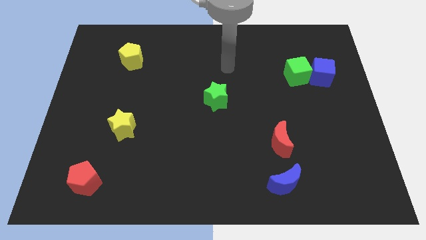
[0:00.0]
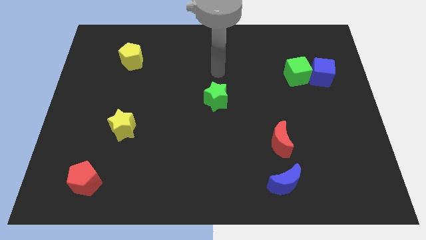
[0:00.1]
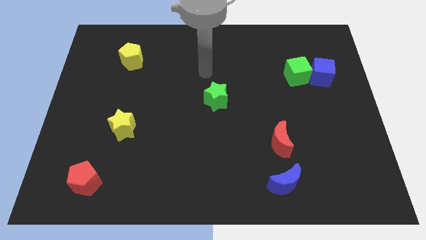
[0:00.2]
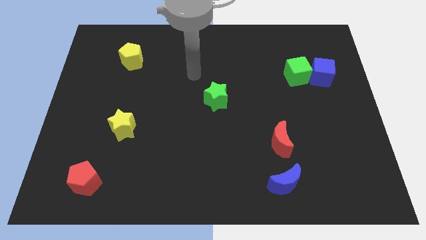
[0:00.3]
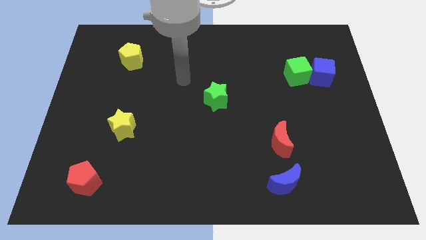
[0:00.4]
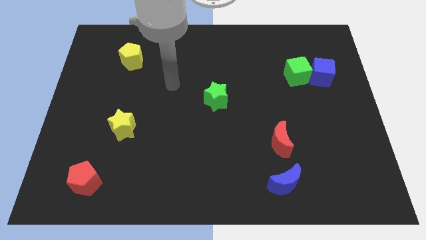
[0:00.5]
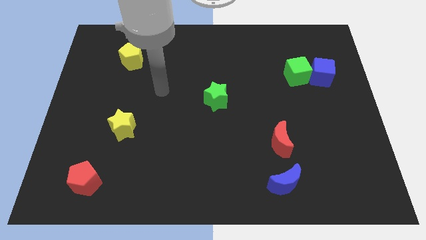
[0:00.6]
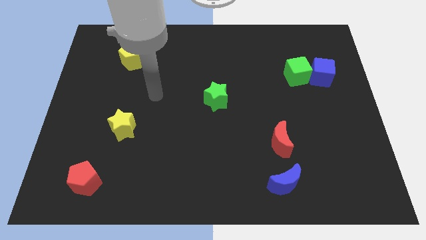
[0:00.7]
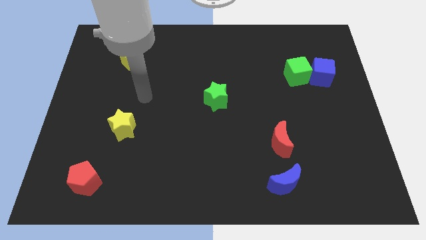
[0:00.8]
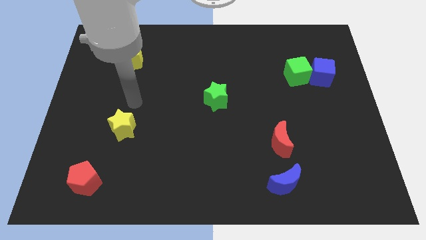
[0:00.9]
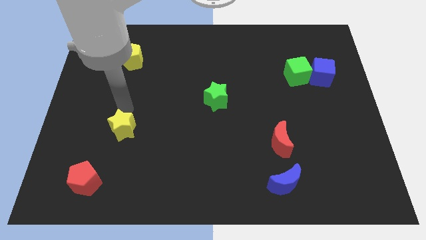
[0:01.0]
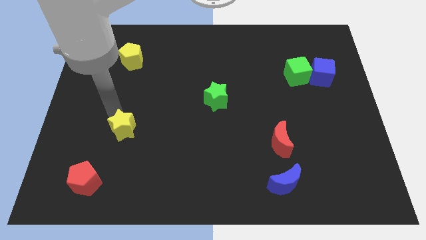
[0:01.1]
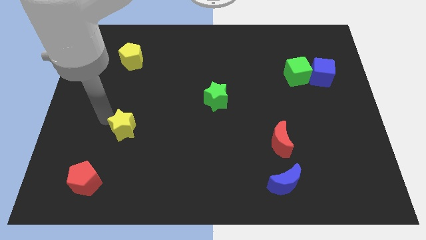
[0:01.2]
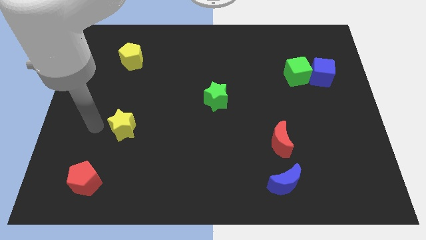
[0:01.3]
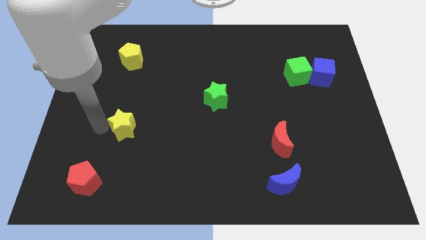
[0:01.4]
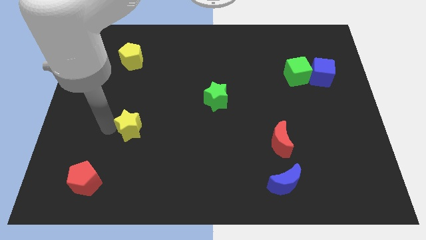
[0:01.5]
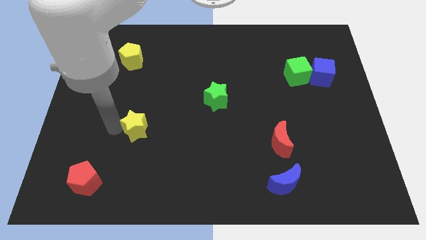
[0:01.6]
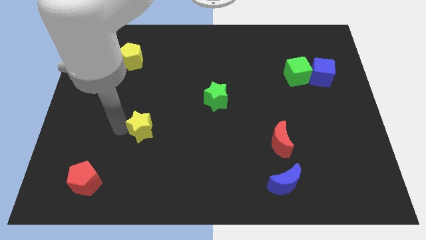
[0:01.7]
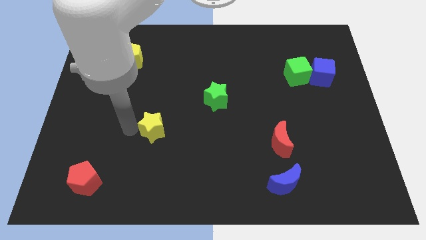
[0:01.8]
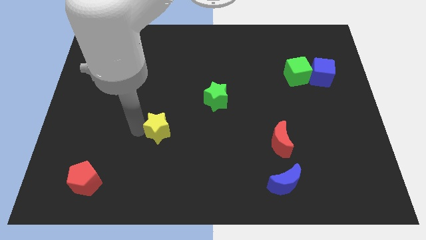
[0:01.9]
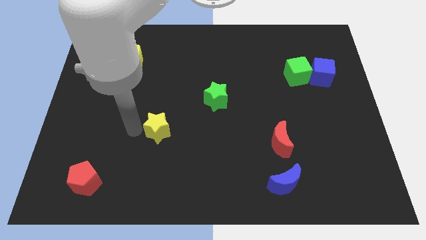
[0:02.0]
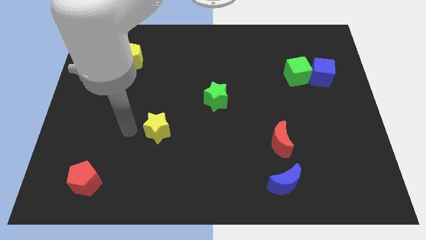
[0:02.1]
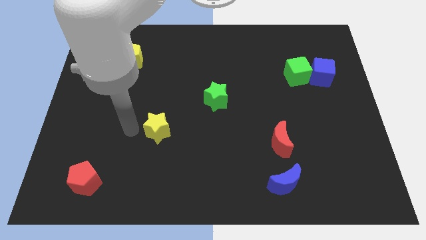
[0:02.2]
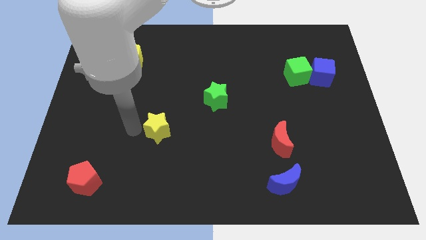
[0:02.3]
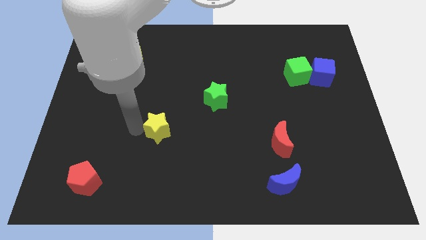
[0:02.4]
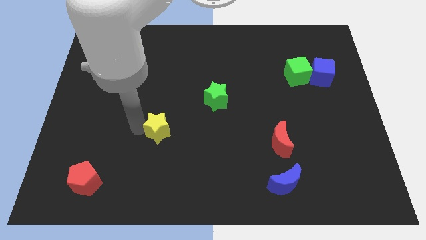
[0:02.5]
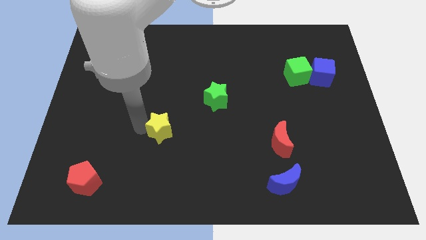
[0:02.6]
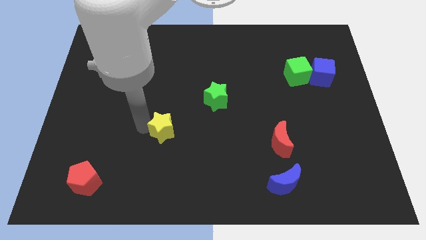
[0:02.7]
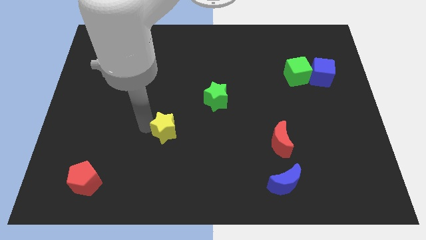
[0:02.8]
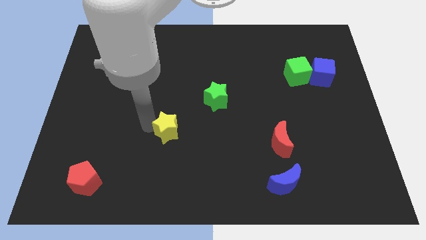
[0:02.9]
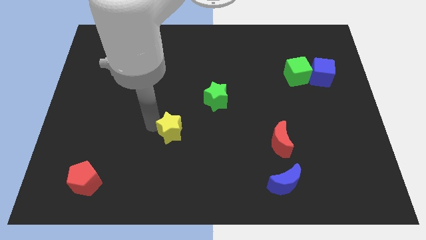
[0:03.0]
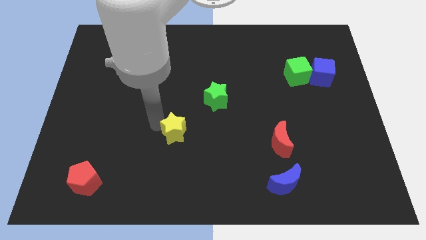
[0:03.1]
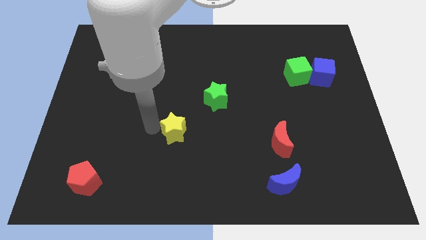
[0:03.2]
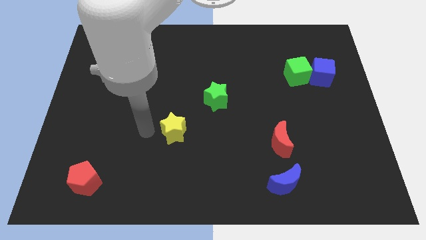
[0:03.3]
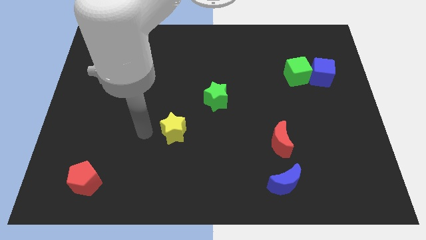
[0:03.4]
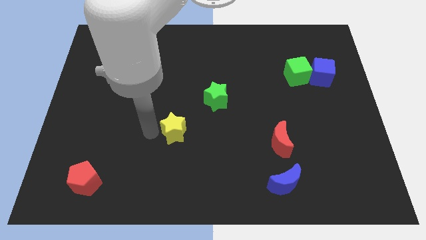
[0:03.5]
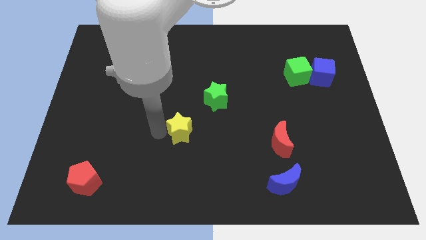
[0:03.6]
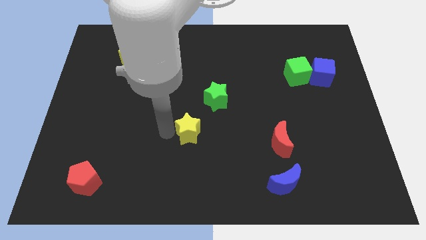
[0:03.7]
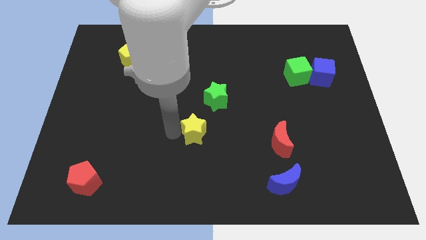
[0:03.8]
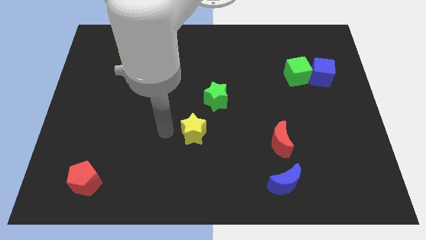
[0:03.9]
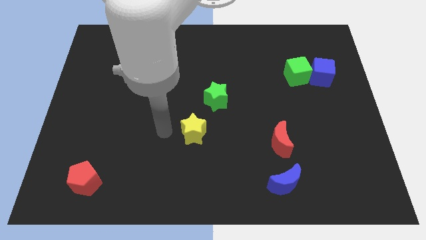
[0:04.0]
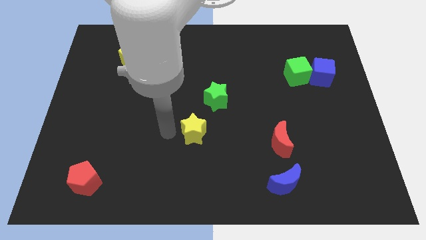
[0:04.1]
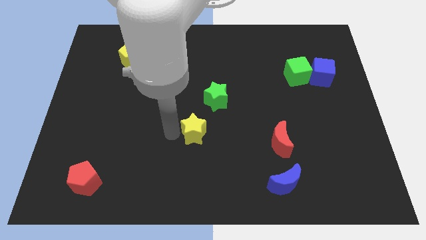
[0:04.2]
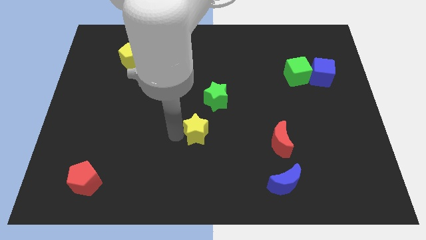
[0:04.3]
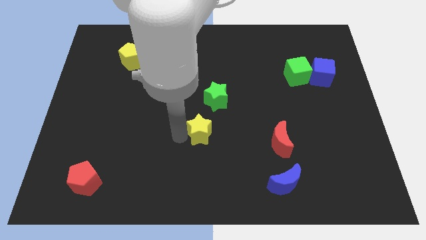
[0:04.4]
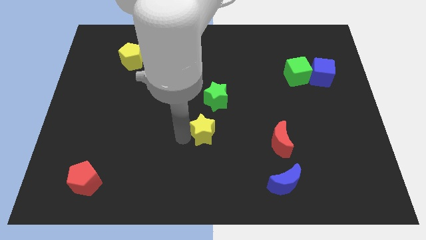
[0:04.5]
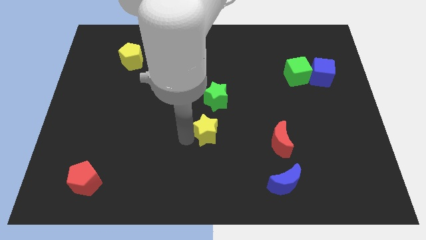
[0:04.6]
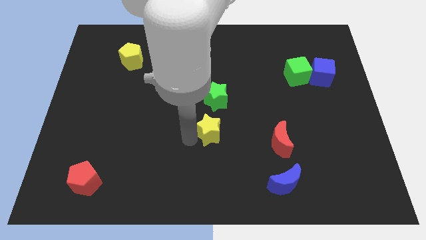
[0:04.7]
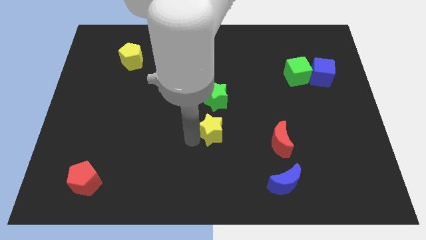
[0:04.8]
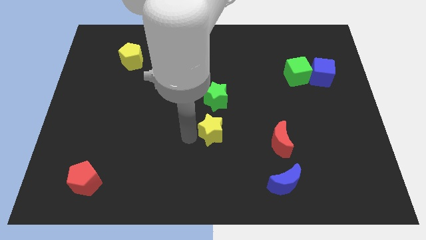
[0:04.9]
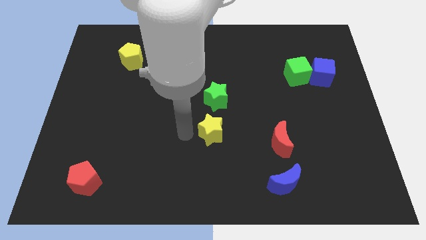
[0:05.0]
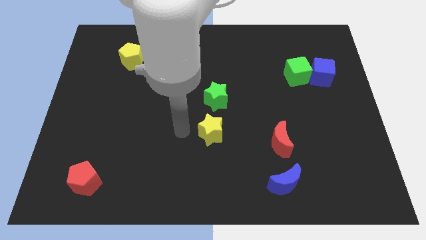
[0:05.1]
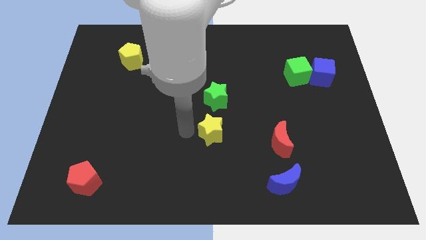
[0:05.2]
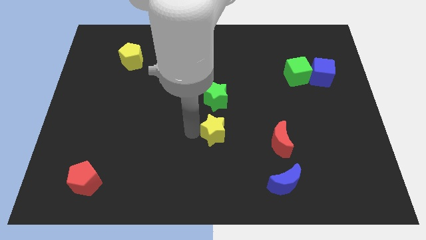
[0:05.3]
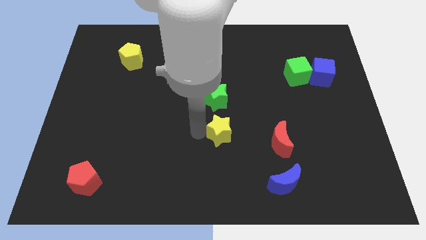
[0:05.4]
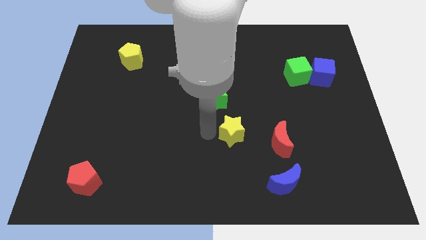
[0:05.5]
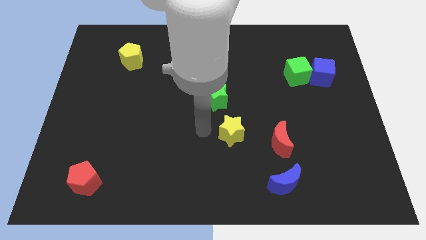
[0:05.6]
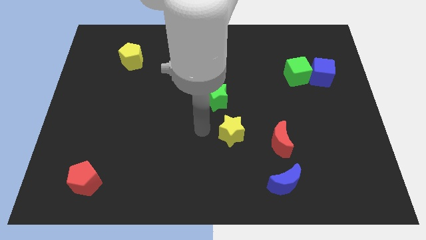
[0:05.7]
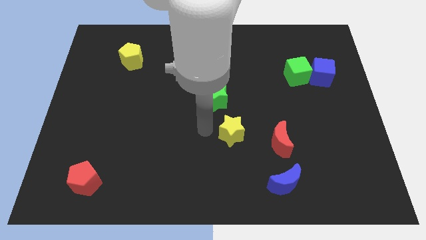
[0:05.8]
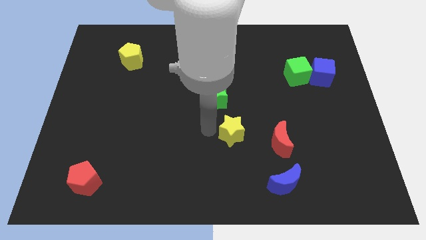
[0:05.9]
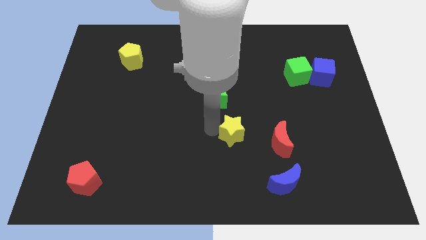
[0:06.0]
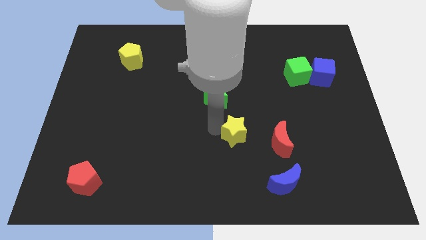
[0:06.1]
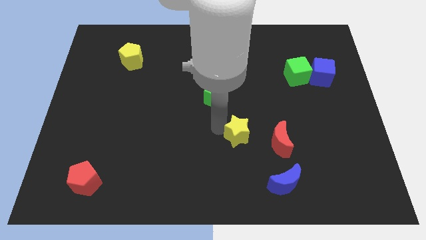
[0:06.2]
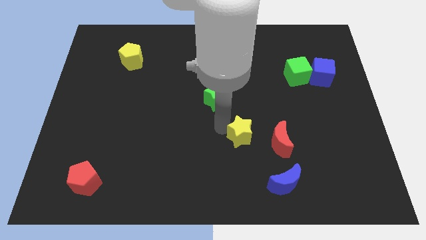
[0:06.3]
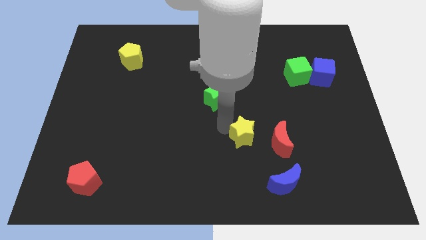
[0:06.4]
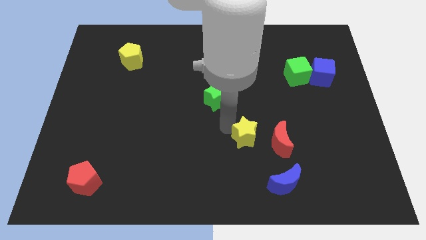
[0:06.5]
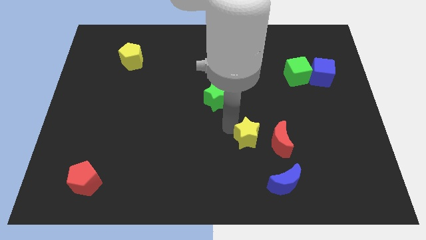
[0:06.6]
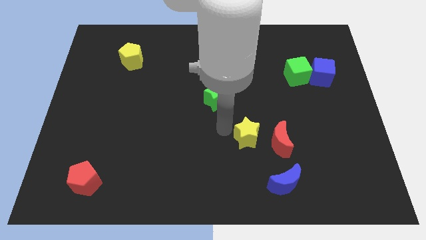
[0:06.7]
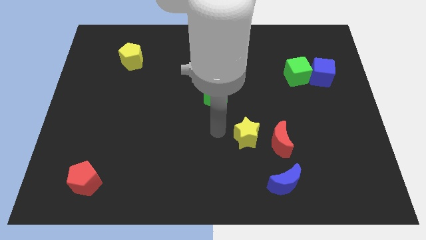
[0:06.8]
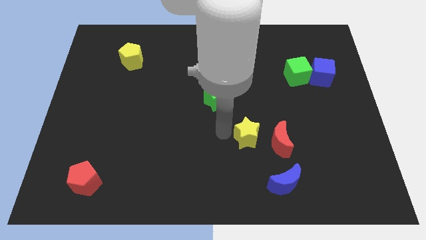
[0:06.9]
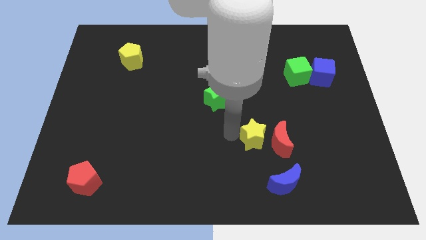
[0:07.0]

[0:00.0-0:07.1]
move the yellow star to the red moon

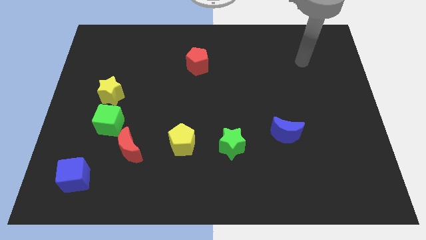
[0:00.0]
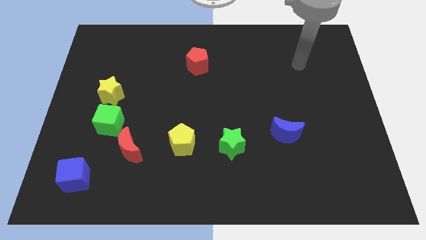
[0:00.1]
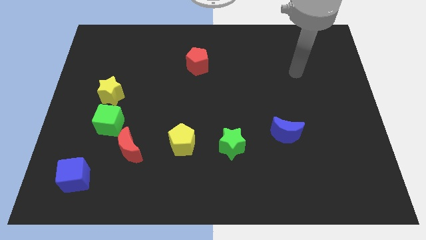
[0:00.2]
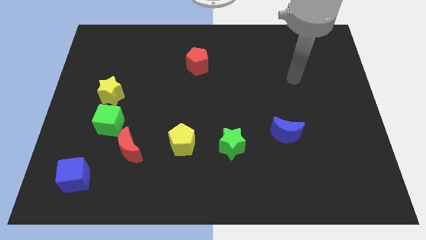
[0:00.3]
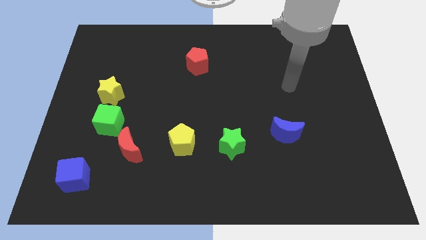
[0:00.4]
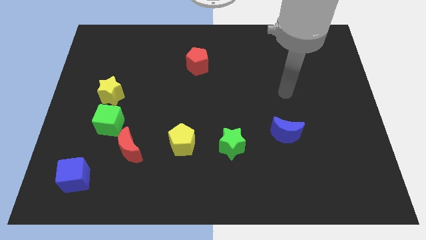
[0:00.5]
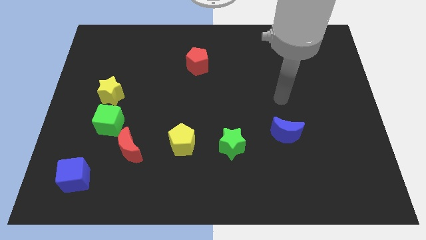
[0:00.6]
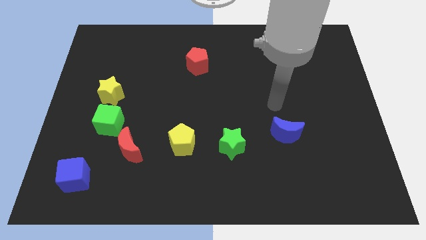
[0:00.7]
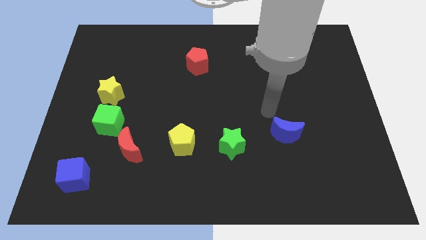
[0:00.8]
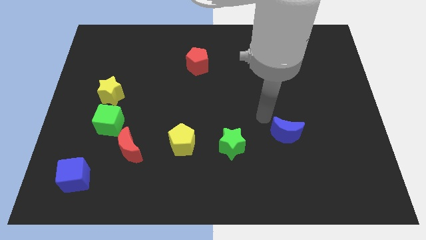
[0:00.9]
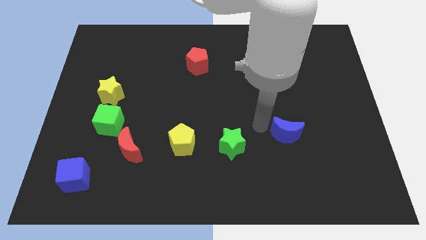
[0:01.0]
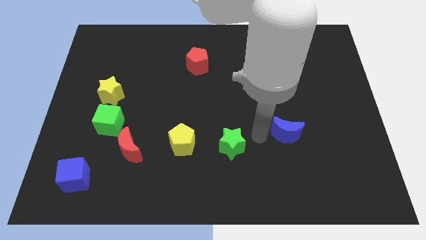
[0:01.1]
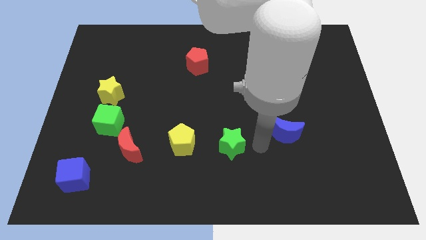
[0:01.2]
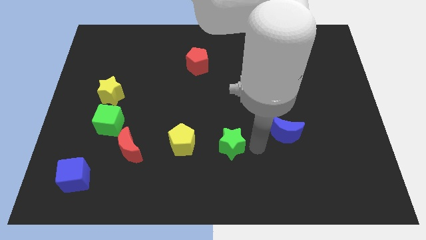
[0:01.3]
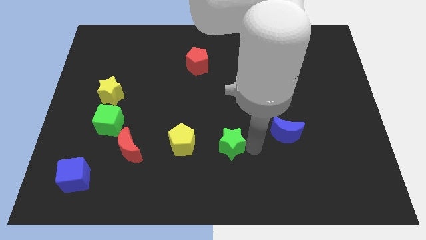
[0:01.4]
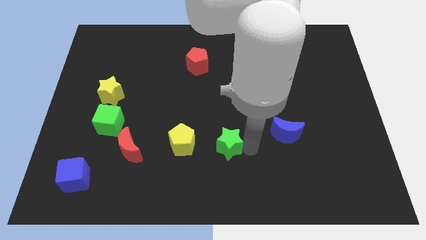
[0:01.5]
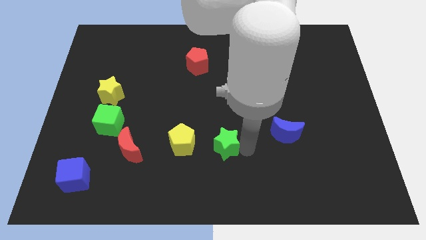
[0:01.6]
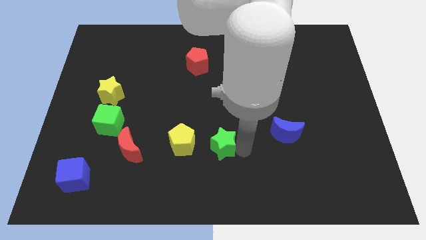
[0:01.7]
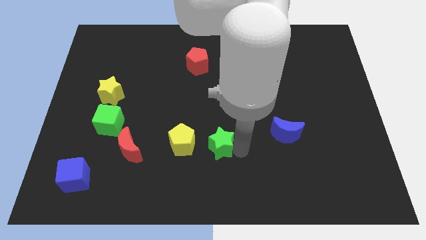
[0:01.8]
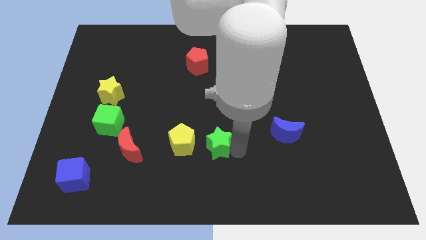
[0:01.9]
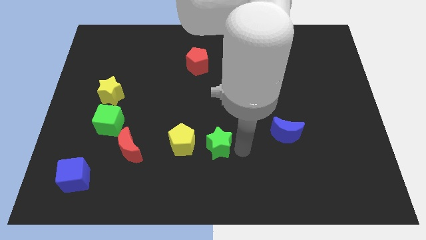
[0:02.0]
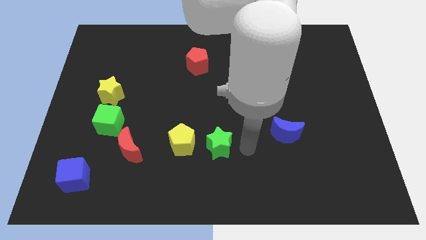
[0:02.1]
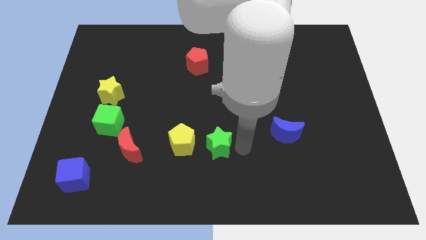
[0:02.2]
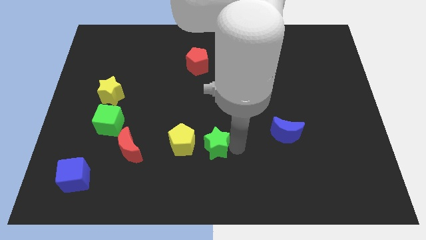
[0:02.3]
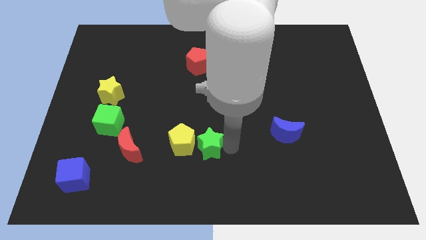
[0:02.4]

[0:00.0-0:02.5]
move the green star towards the yellow pentagon
